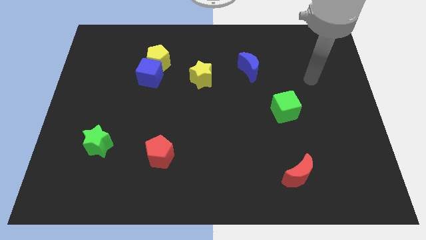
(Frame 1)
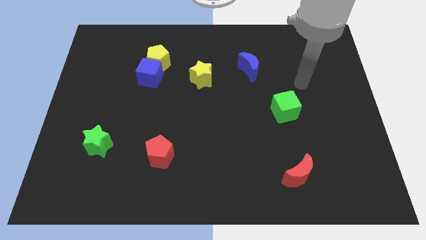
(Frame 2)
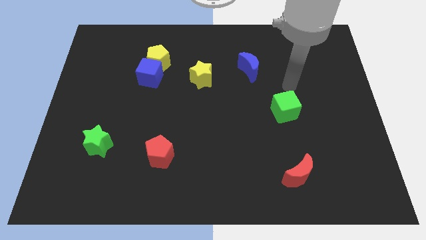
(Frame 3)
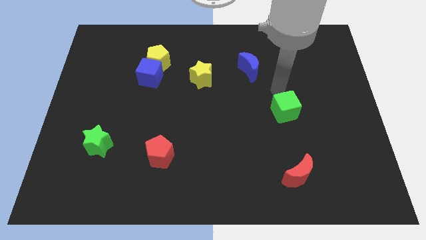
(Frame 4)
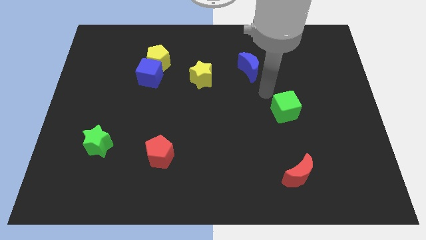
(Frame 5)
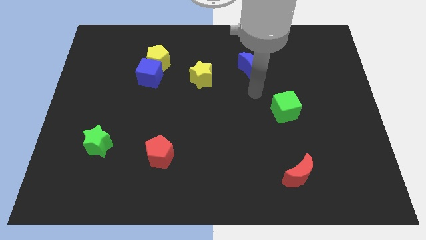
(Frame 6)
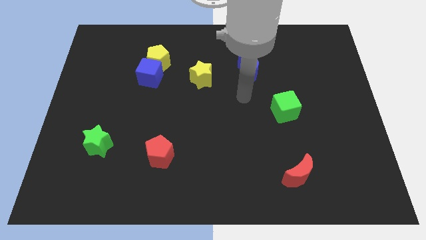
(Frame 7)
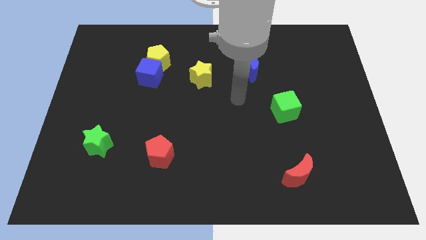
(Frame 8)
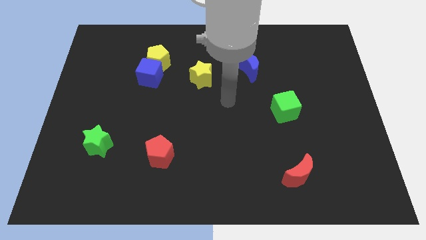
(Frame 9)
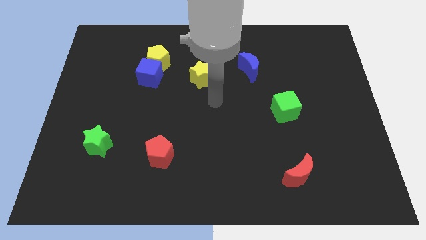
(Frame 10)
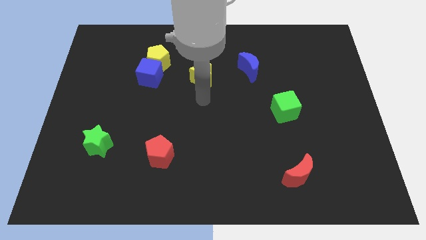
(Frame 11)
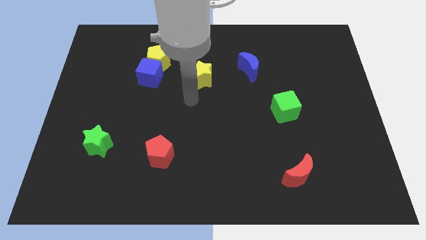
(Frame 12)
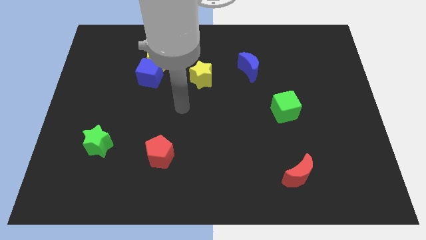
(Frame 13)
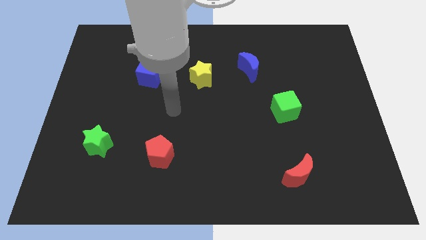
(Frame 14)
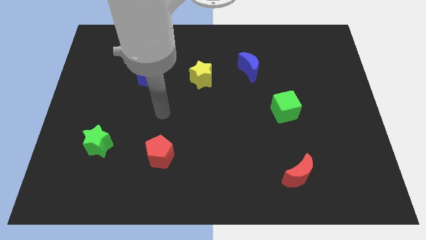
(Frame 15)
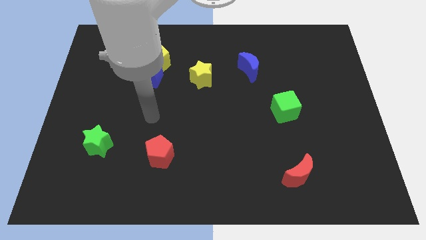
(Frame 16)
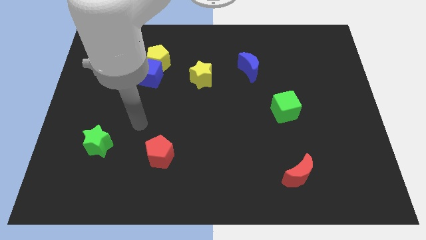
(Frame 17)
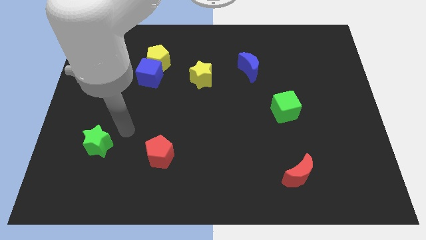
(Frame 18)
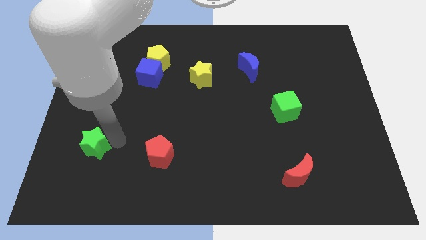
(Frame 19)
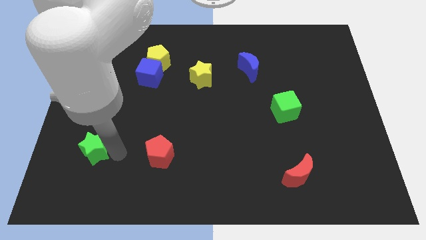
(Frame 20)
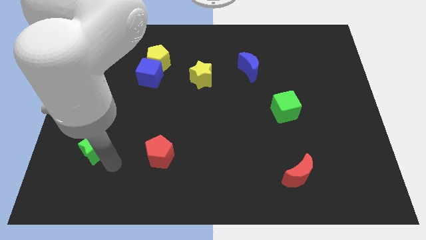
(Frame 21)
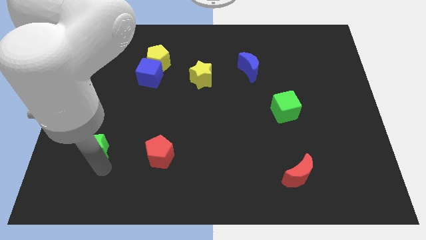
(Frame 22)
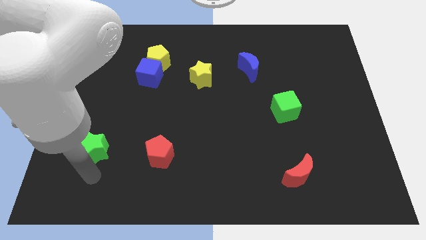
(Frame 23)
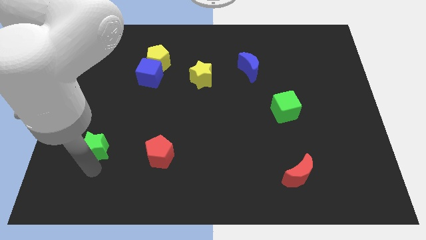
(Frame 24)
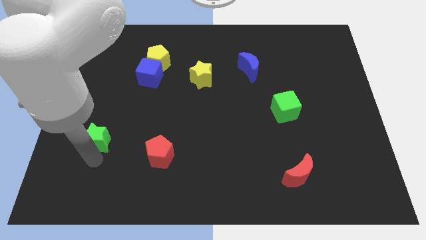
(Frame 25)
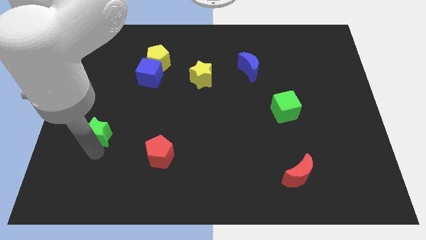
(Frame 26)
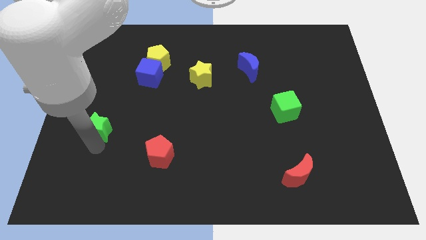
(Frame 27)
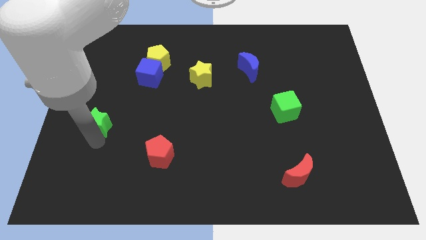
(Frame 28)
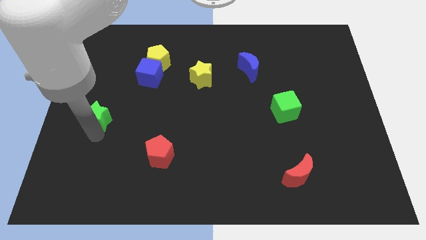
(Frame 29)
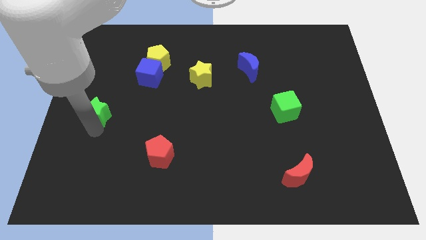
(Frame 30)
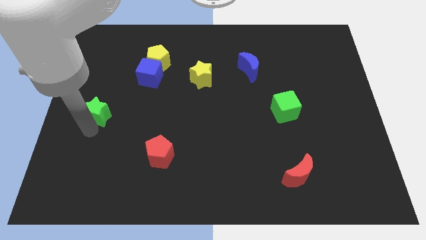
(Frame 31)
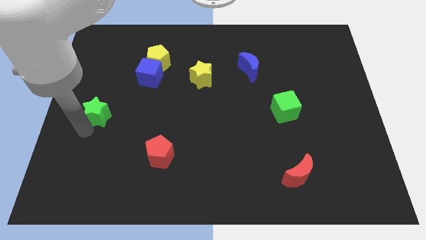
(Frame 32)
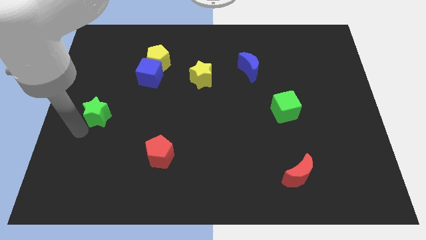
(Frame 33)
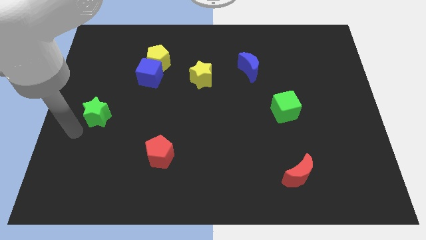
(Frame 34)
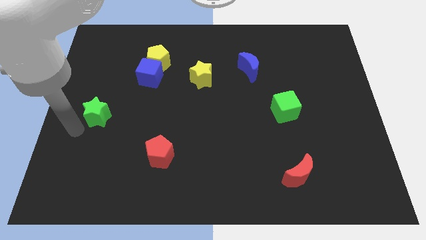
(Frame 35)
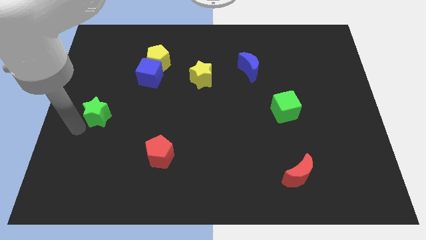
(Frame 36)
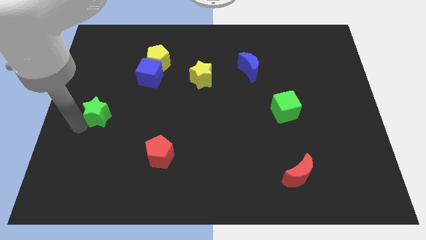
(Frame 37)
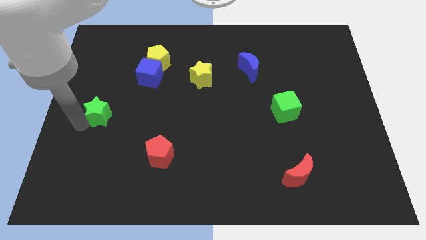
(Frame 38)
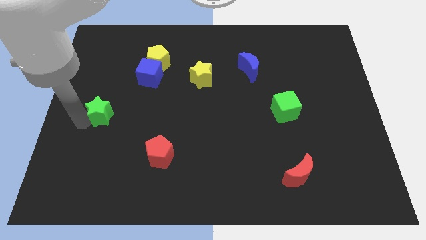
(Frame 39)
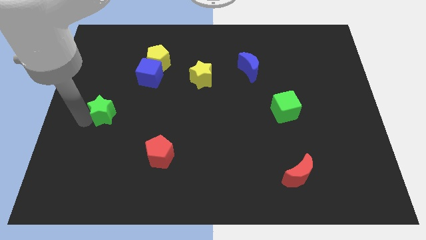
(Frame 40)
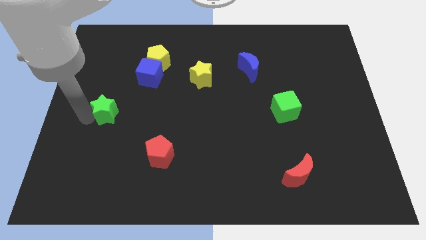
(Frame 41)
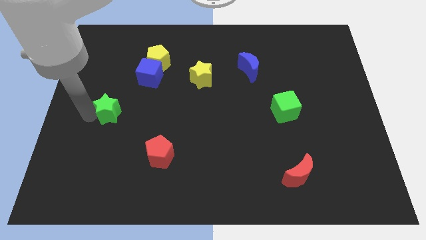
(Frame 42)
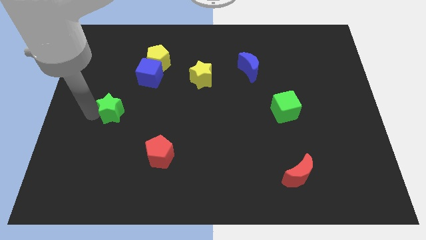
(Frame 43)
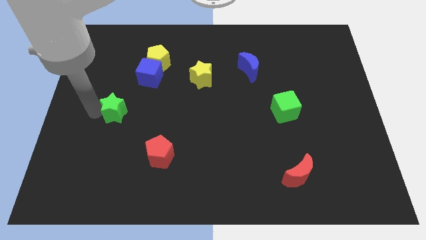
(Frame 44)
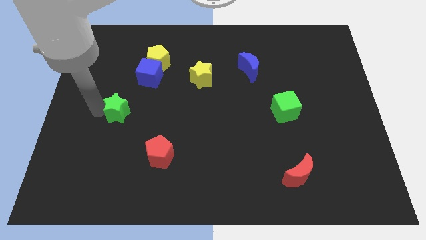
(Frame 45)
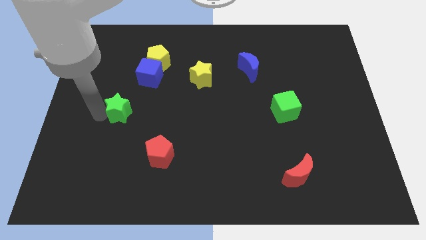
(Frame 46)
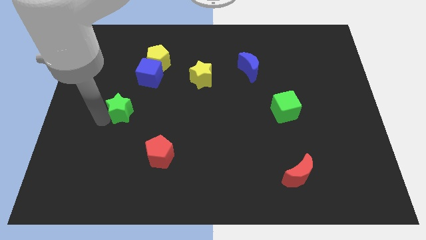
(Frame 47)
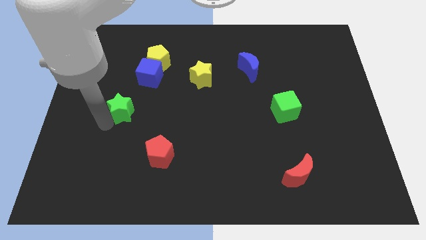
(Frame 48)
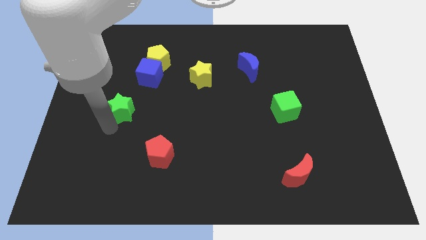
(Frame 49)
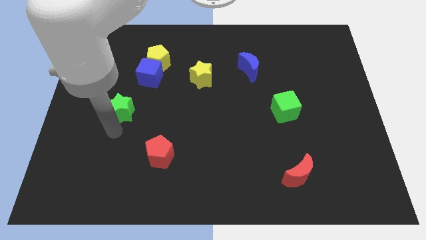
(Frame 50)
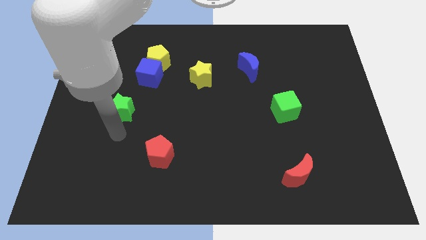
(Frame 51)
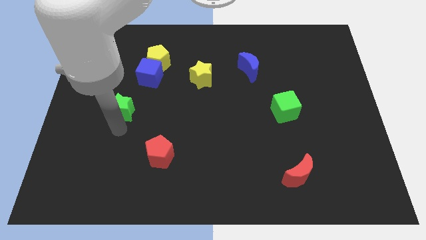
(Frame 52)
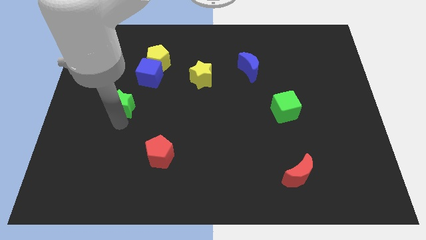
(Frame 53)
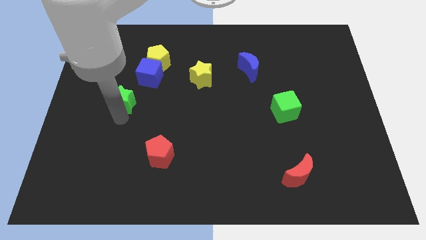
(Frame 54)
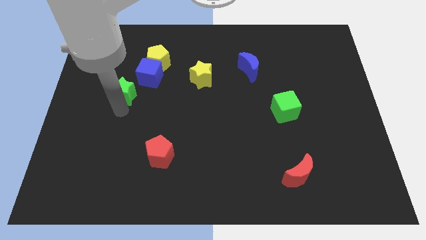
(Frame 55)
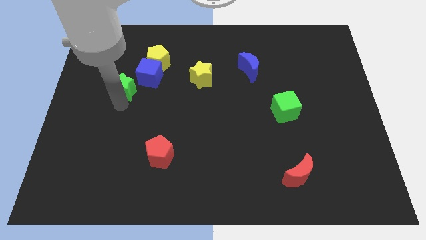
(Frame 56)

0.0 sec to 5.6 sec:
put the green star to the bottom left of the yellow pentagon

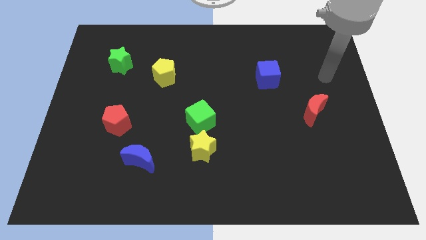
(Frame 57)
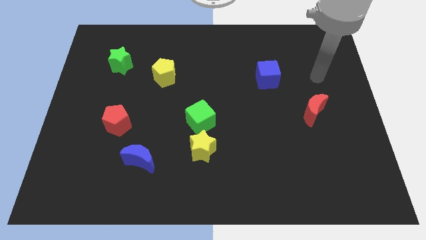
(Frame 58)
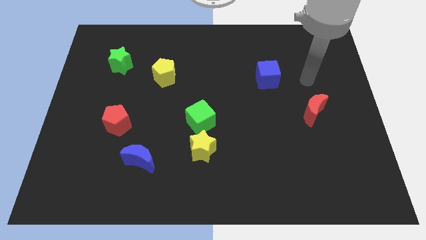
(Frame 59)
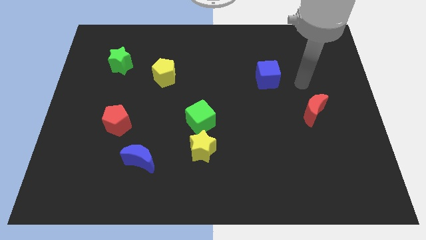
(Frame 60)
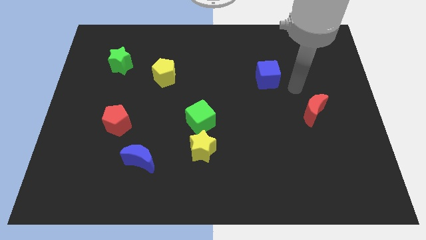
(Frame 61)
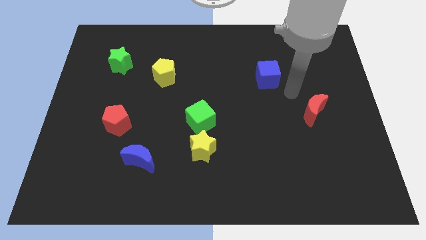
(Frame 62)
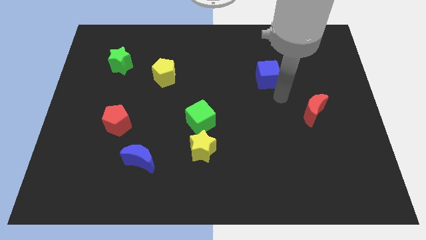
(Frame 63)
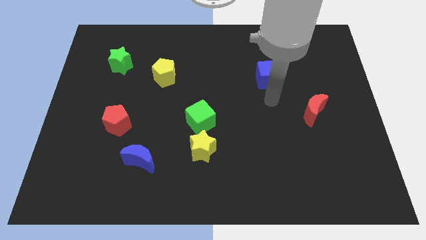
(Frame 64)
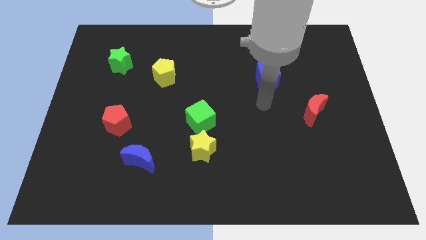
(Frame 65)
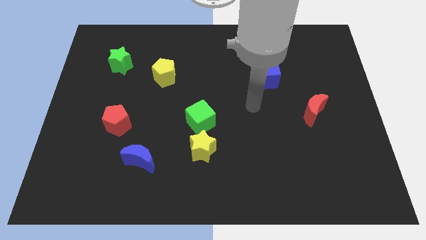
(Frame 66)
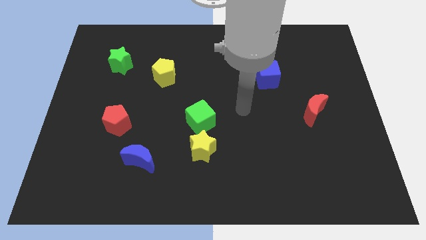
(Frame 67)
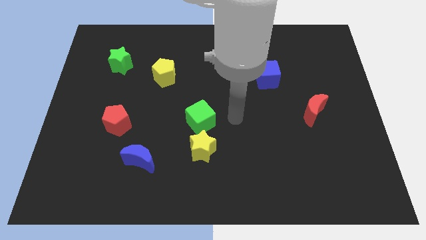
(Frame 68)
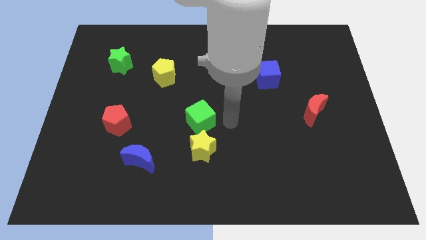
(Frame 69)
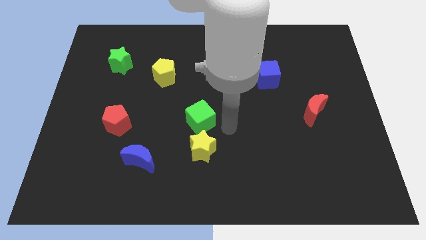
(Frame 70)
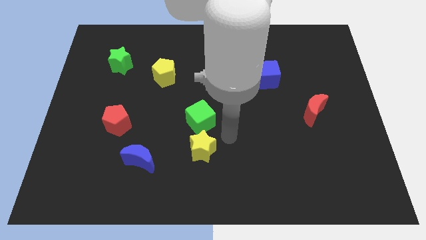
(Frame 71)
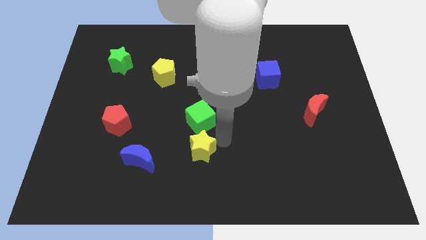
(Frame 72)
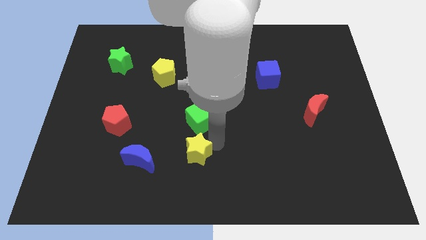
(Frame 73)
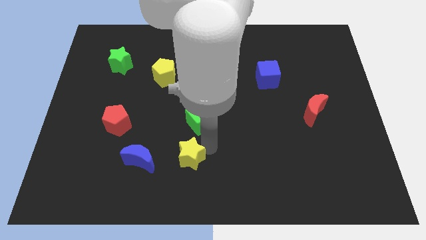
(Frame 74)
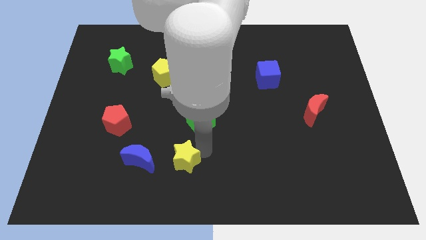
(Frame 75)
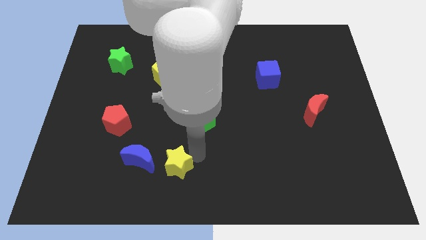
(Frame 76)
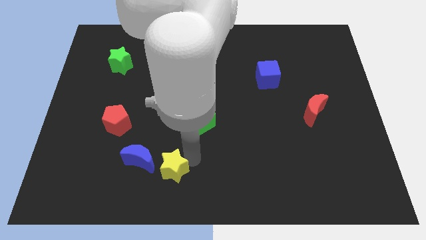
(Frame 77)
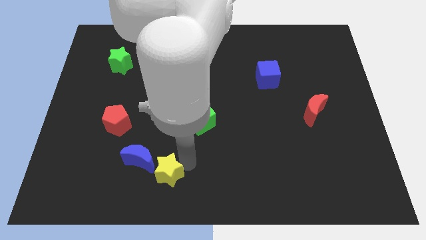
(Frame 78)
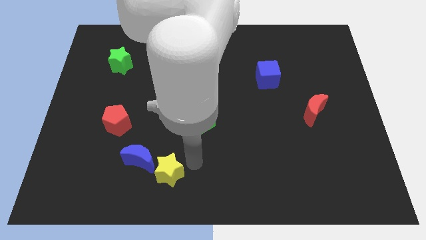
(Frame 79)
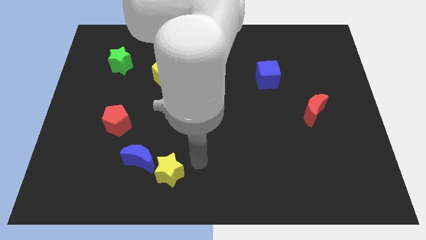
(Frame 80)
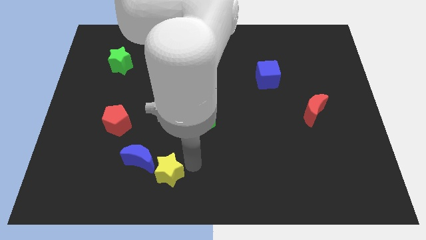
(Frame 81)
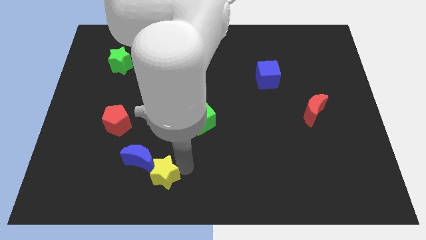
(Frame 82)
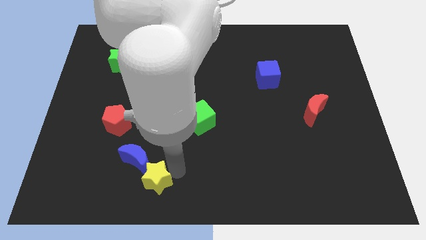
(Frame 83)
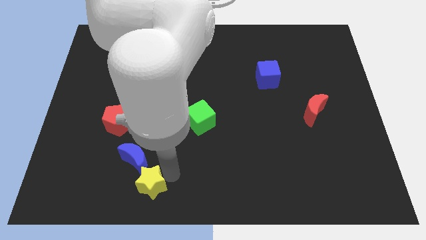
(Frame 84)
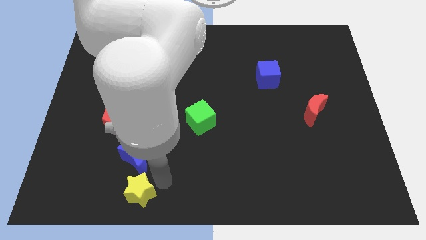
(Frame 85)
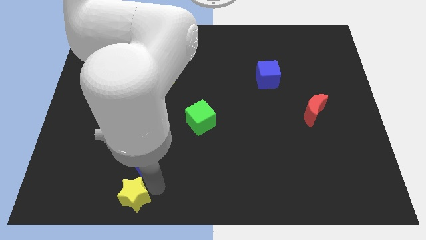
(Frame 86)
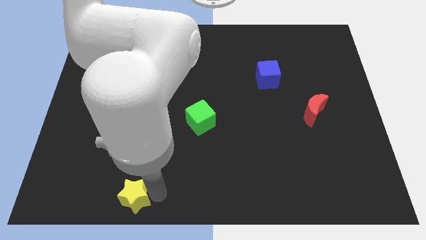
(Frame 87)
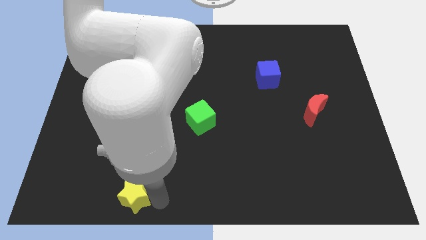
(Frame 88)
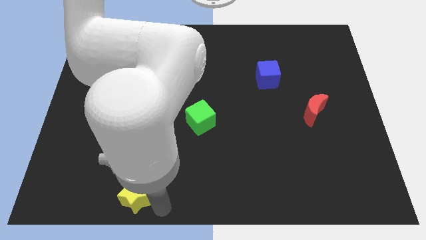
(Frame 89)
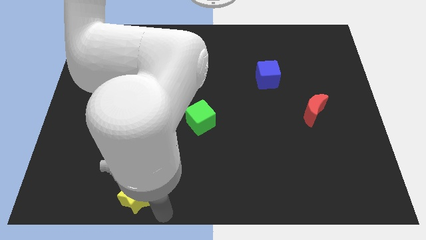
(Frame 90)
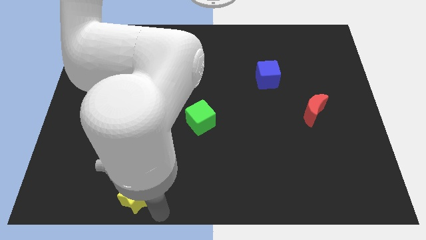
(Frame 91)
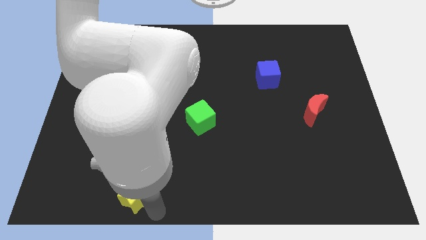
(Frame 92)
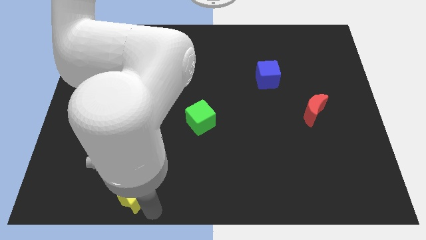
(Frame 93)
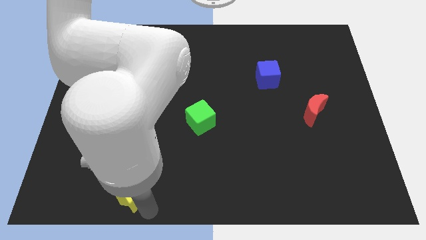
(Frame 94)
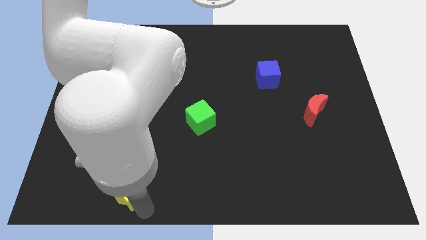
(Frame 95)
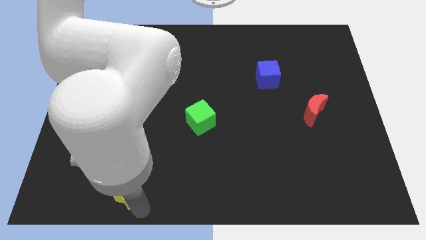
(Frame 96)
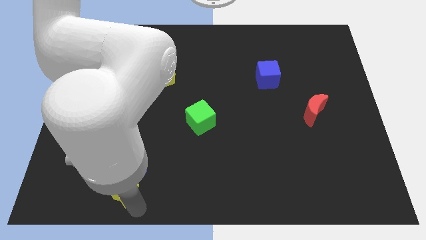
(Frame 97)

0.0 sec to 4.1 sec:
push the yellow star diagonally down and to the left of the blue moon
